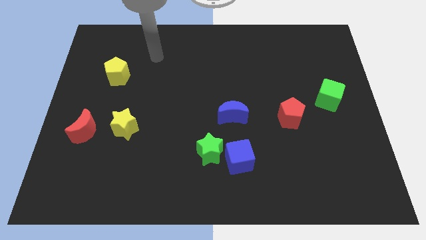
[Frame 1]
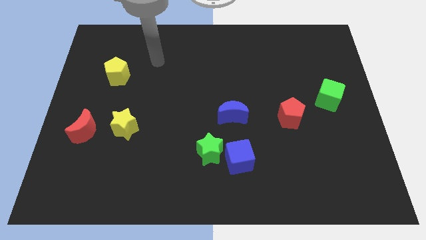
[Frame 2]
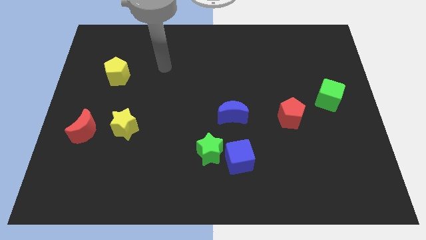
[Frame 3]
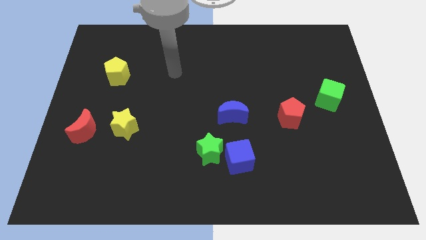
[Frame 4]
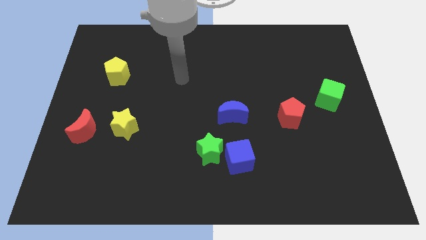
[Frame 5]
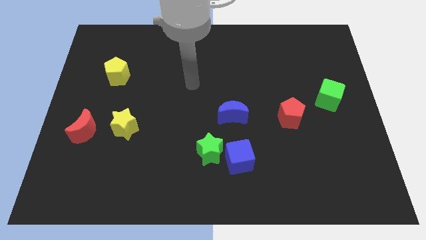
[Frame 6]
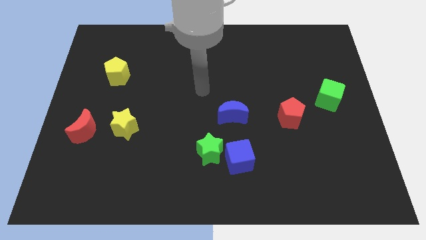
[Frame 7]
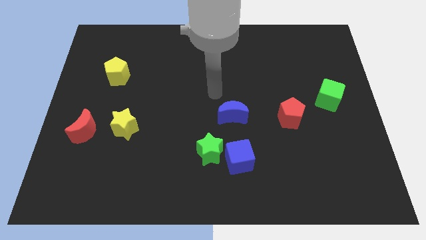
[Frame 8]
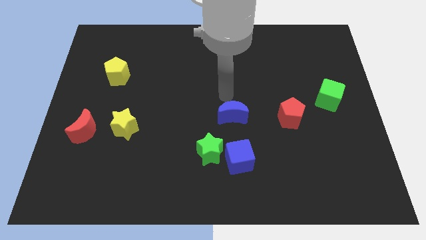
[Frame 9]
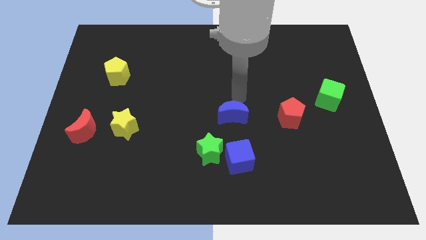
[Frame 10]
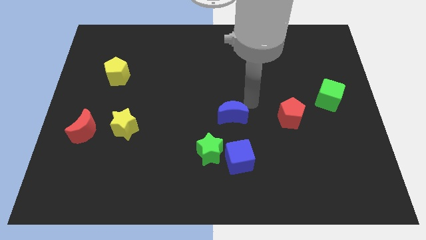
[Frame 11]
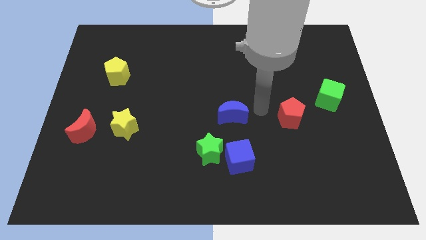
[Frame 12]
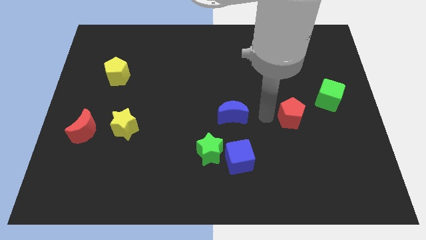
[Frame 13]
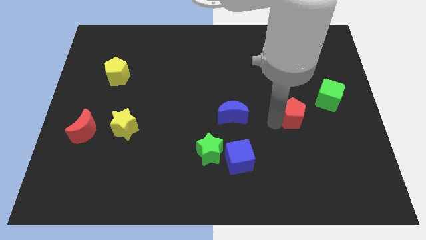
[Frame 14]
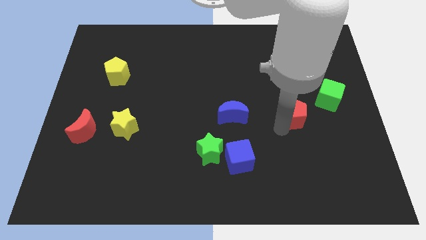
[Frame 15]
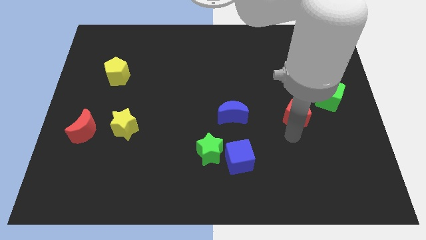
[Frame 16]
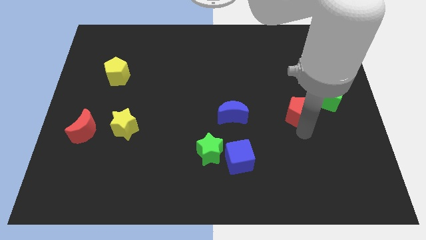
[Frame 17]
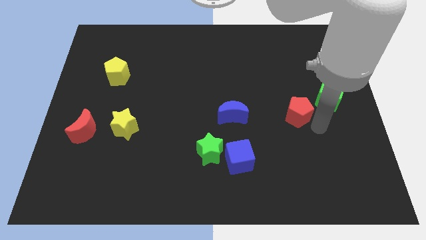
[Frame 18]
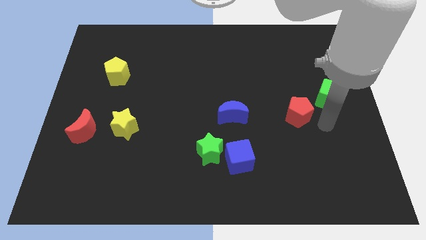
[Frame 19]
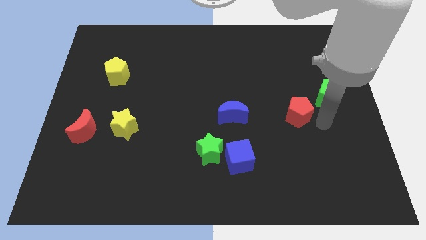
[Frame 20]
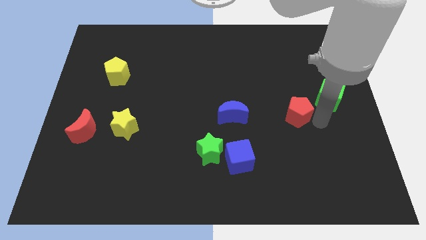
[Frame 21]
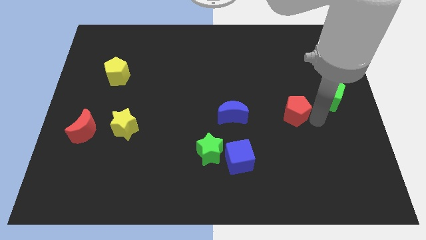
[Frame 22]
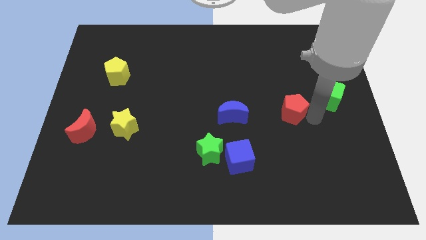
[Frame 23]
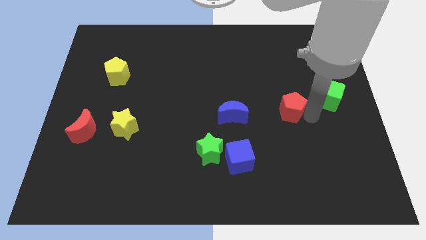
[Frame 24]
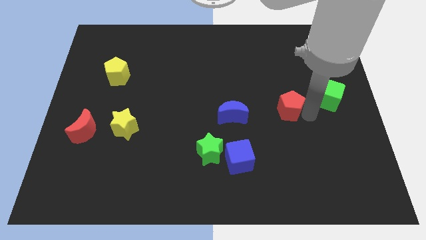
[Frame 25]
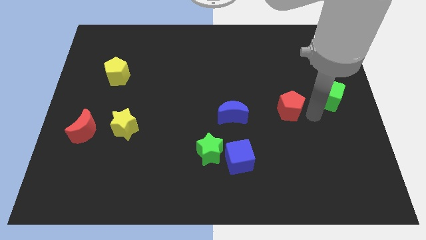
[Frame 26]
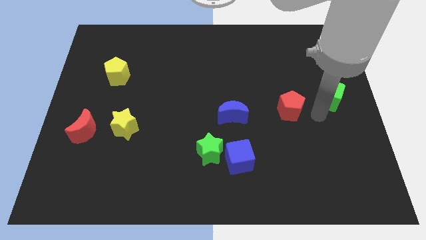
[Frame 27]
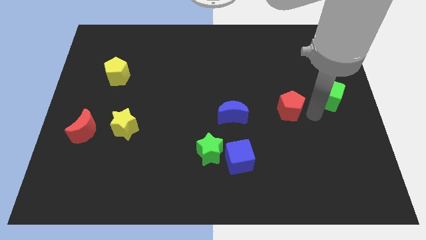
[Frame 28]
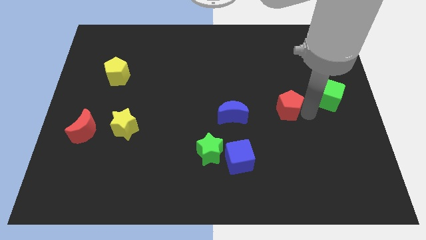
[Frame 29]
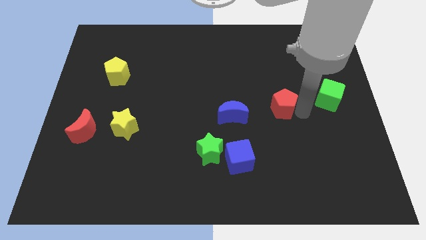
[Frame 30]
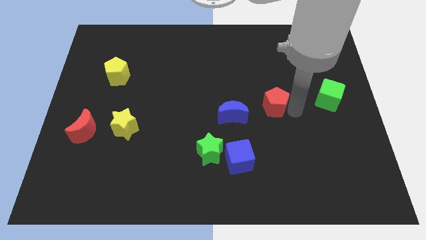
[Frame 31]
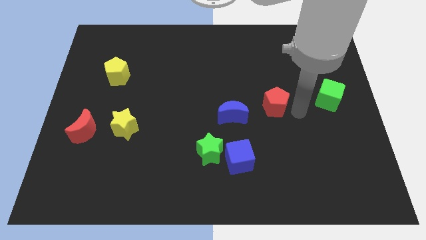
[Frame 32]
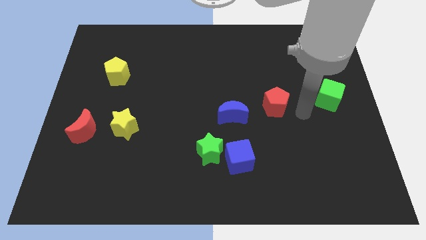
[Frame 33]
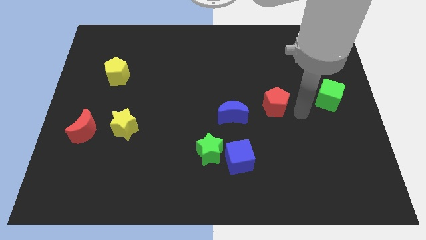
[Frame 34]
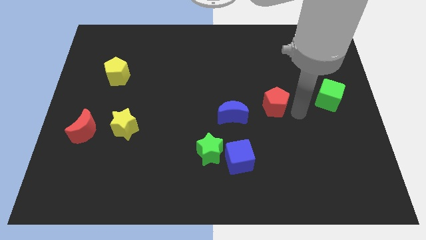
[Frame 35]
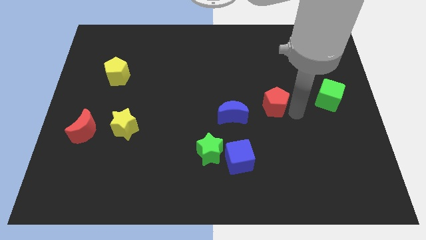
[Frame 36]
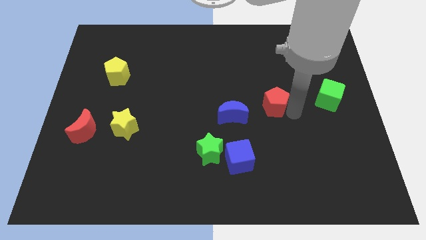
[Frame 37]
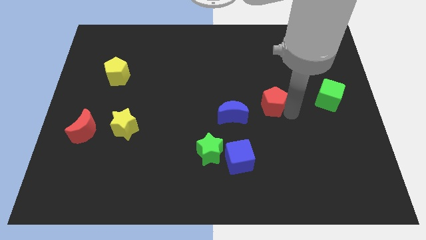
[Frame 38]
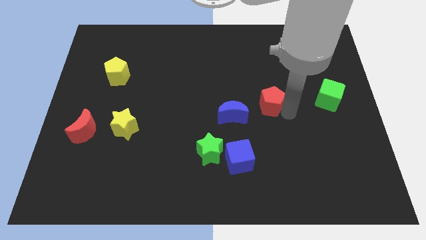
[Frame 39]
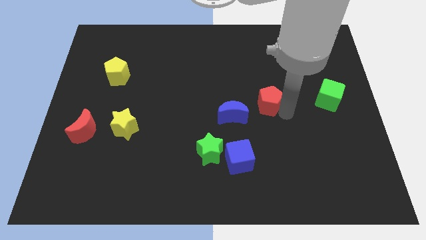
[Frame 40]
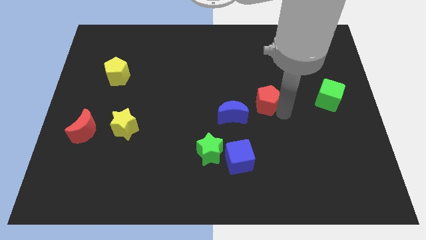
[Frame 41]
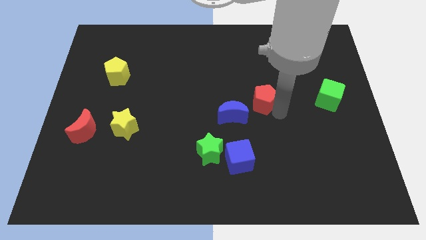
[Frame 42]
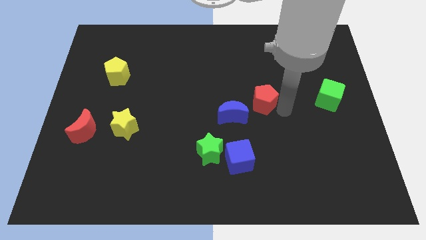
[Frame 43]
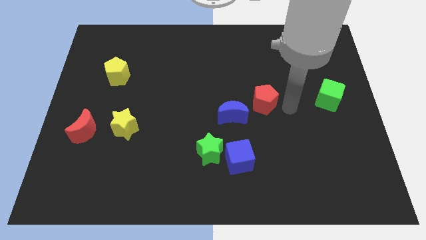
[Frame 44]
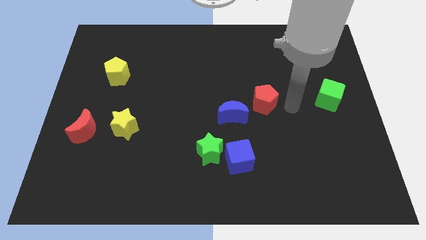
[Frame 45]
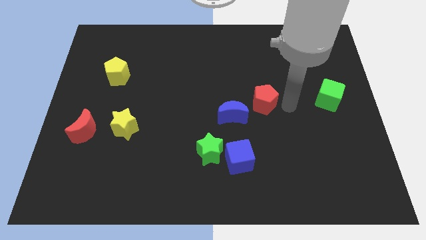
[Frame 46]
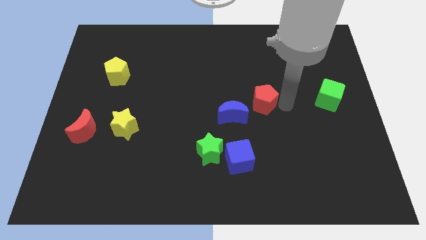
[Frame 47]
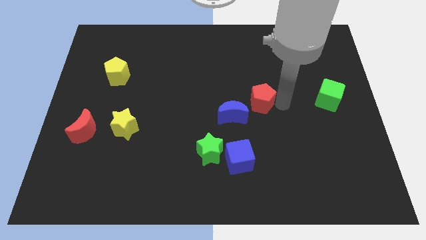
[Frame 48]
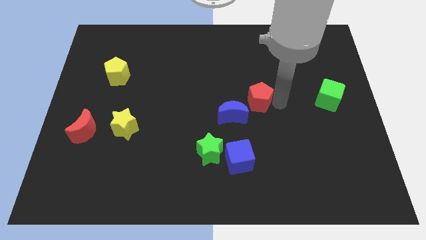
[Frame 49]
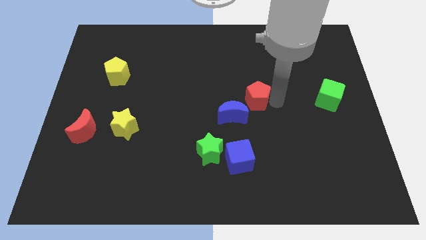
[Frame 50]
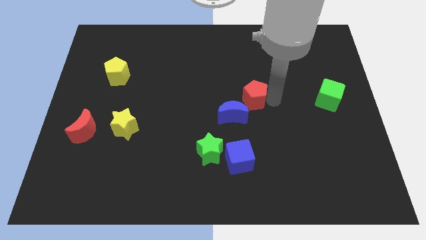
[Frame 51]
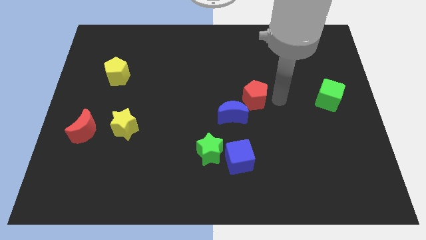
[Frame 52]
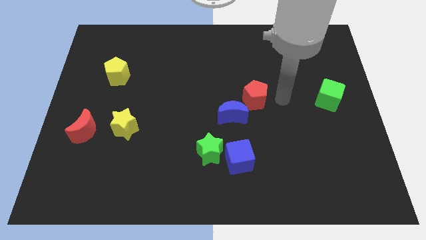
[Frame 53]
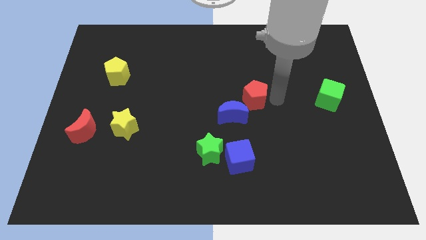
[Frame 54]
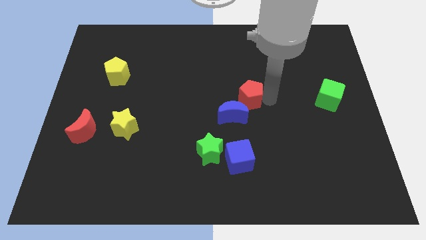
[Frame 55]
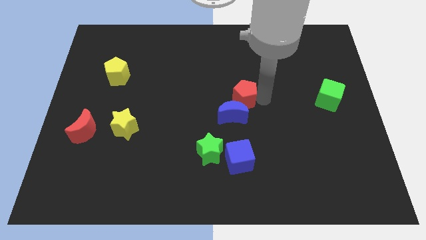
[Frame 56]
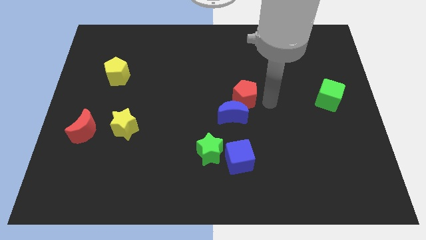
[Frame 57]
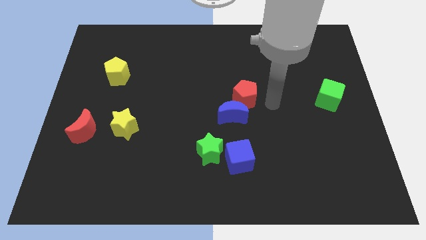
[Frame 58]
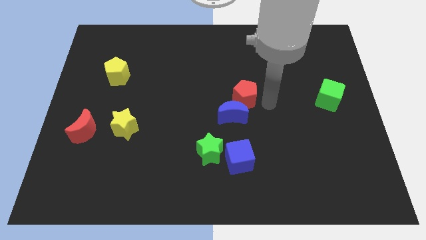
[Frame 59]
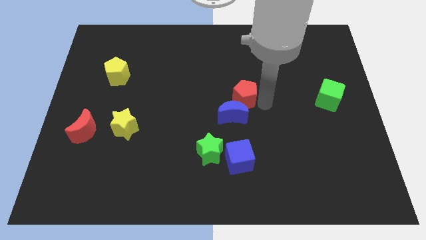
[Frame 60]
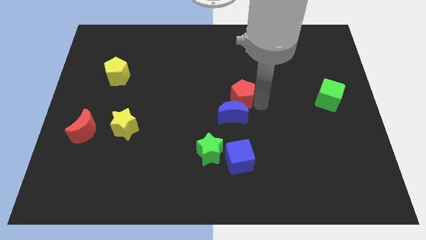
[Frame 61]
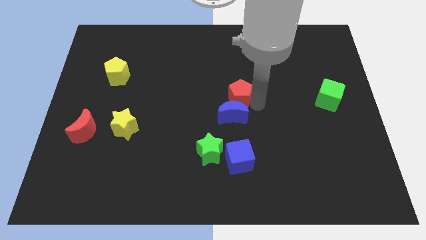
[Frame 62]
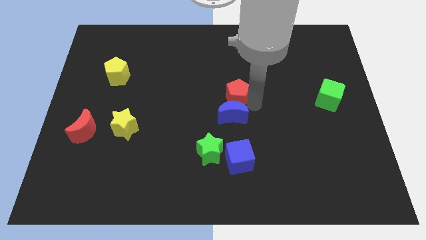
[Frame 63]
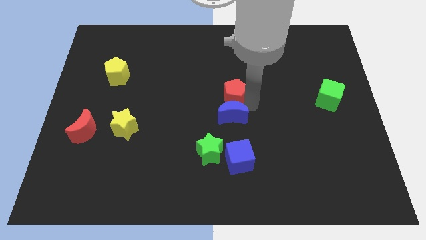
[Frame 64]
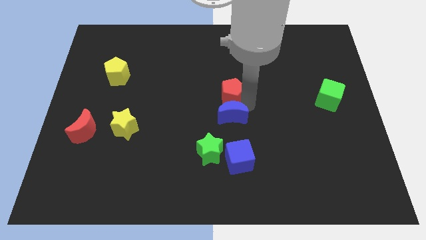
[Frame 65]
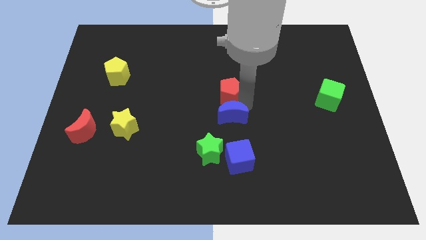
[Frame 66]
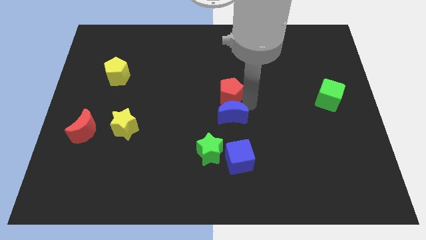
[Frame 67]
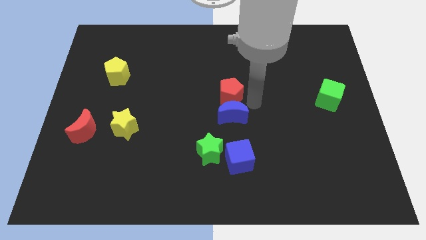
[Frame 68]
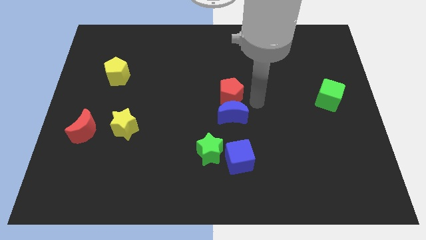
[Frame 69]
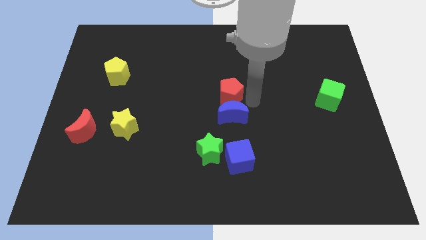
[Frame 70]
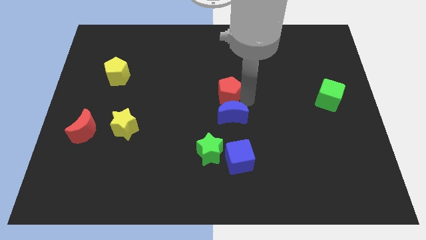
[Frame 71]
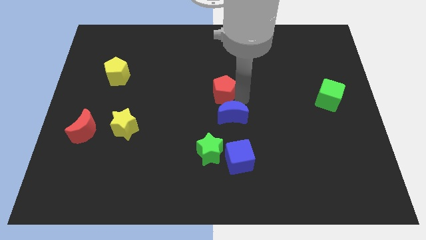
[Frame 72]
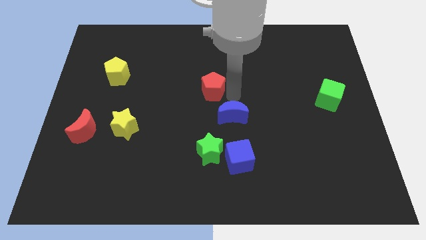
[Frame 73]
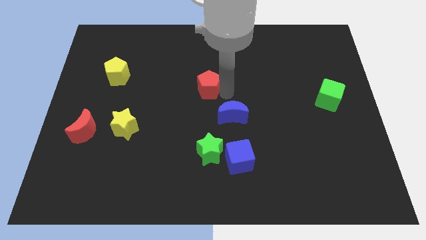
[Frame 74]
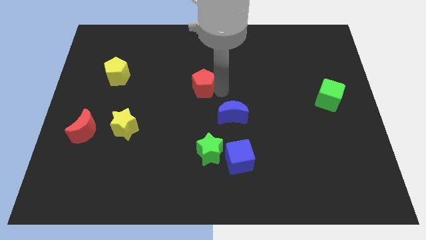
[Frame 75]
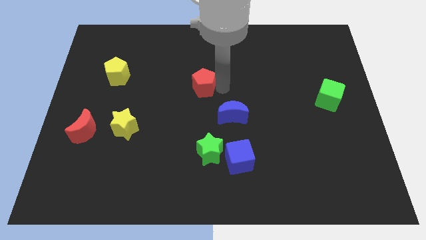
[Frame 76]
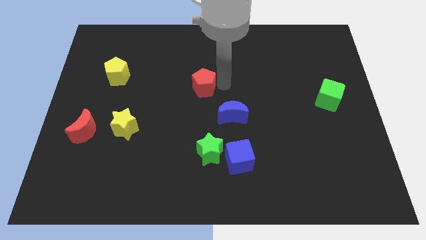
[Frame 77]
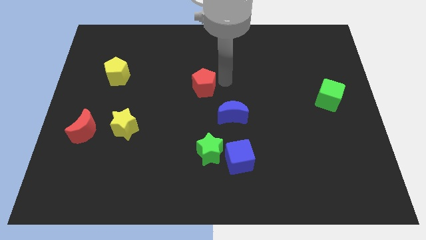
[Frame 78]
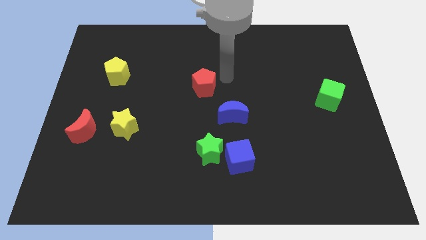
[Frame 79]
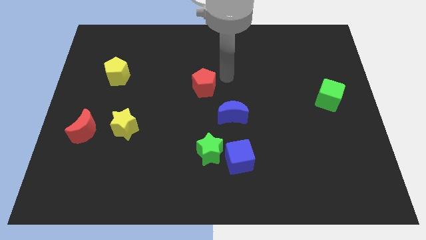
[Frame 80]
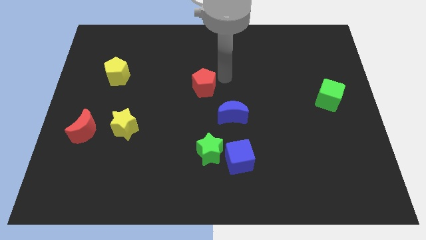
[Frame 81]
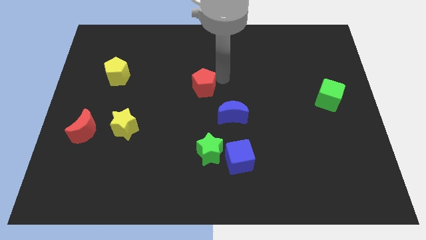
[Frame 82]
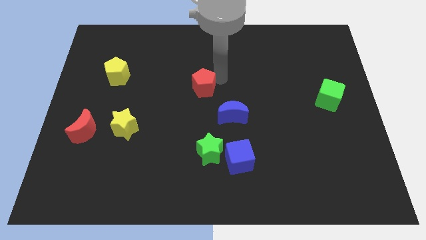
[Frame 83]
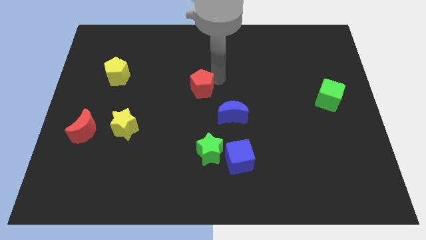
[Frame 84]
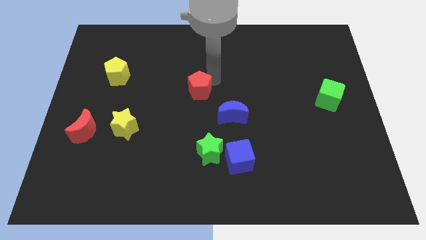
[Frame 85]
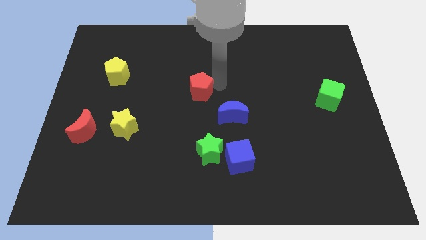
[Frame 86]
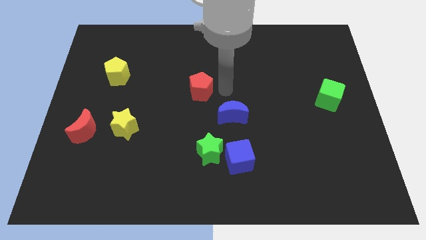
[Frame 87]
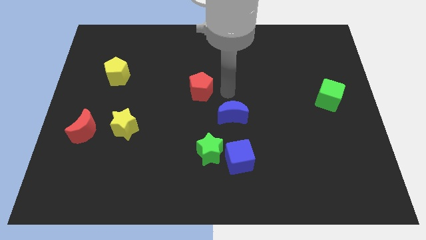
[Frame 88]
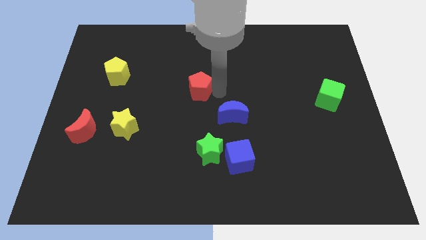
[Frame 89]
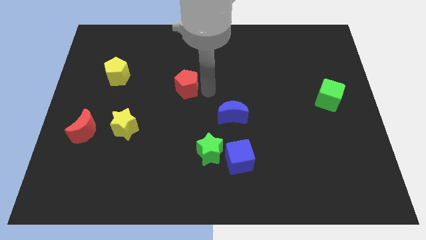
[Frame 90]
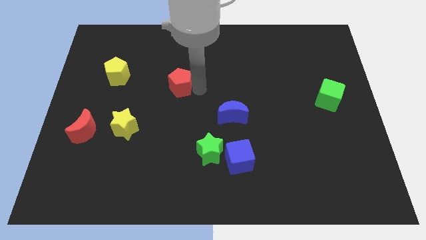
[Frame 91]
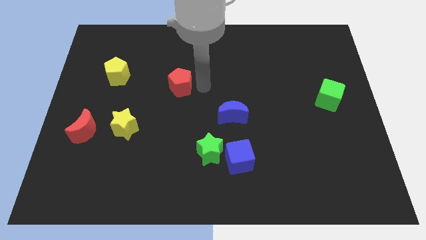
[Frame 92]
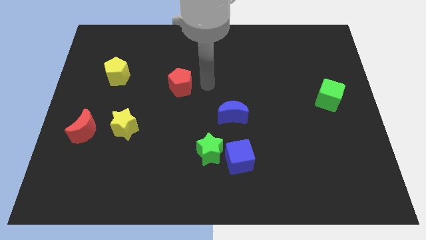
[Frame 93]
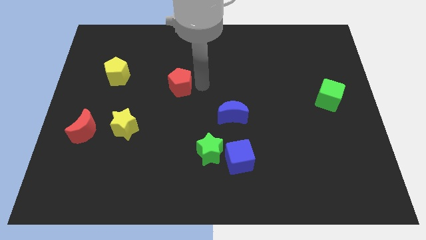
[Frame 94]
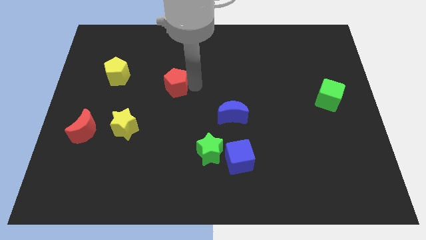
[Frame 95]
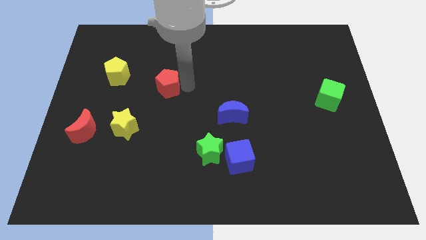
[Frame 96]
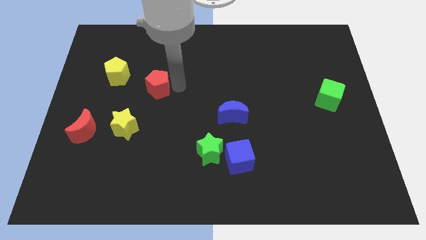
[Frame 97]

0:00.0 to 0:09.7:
move the red pentagon to the bottom right of the yellow pentagon
